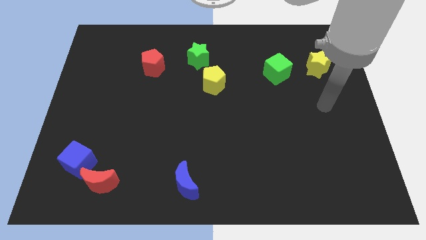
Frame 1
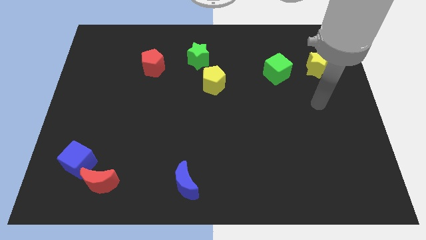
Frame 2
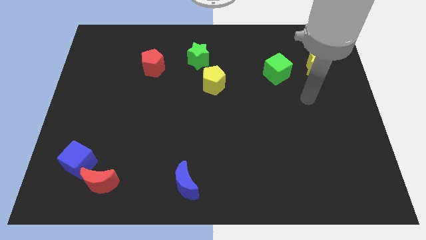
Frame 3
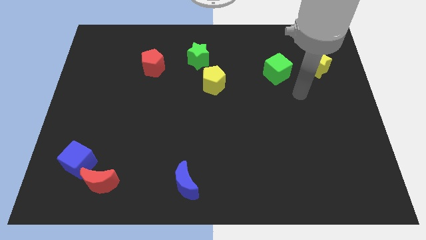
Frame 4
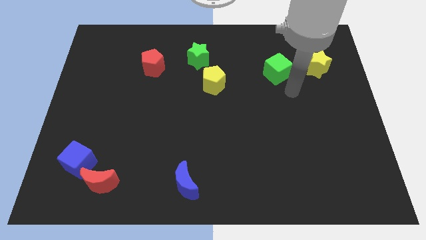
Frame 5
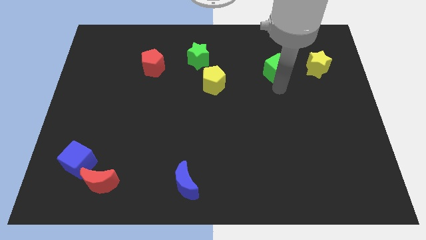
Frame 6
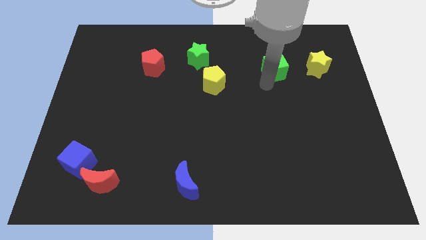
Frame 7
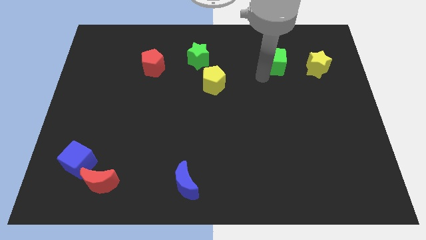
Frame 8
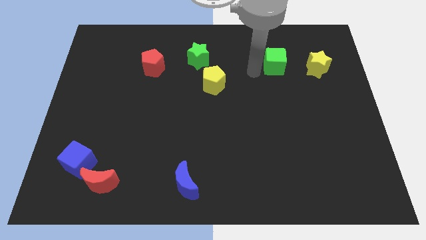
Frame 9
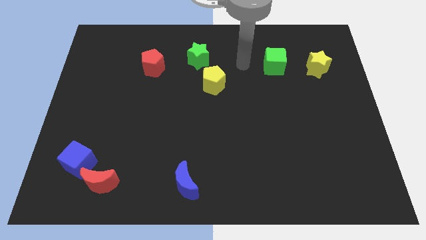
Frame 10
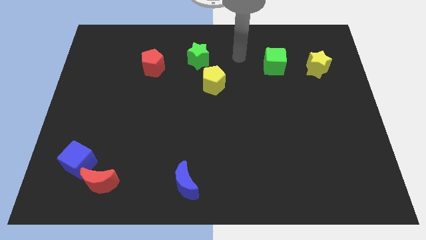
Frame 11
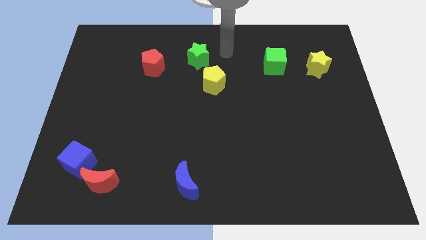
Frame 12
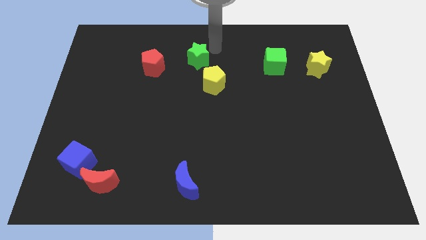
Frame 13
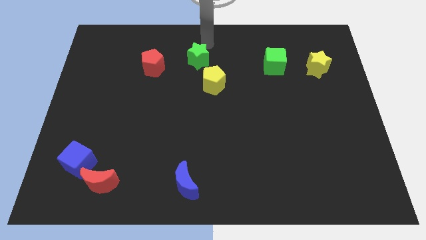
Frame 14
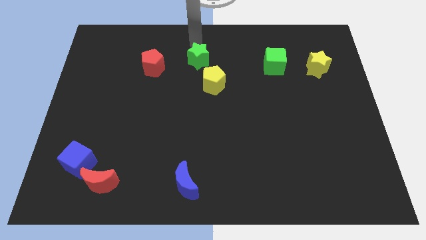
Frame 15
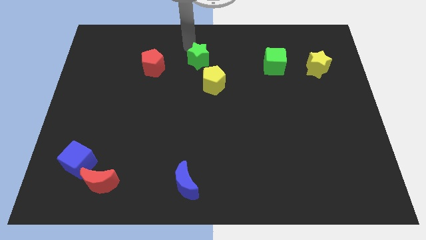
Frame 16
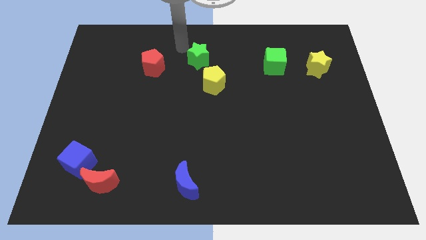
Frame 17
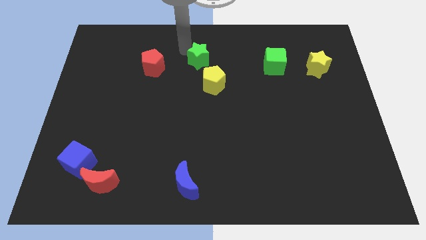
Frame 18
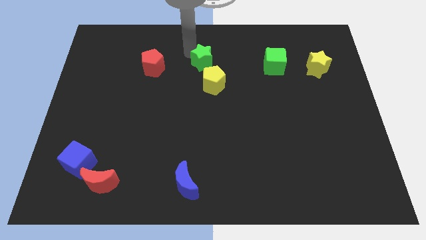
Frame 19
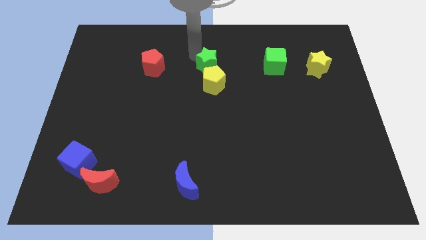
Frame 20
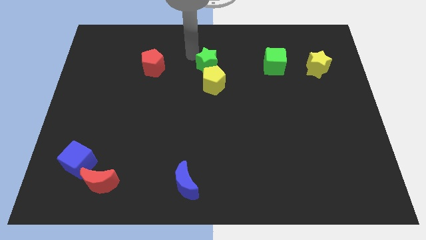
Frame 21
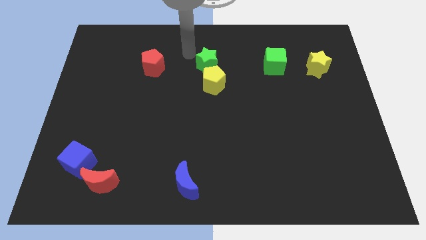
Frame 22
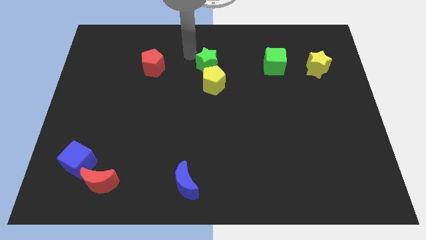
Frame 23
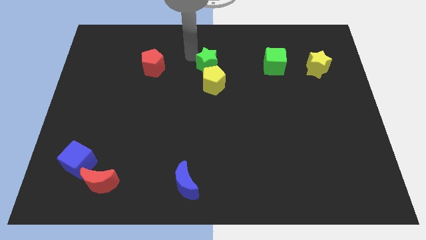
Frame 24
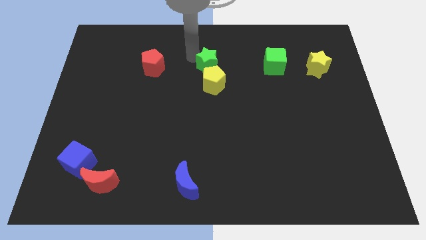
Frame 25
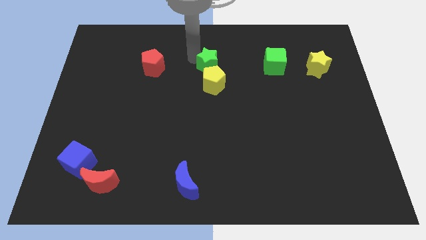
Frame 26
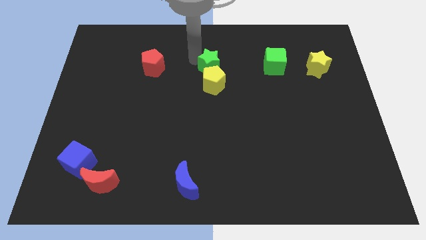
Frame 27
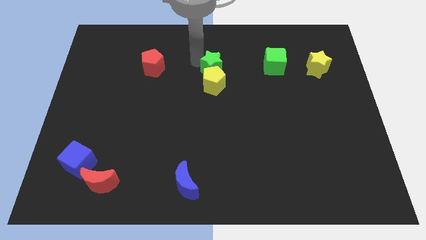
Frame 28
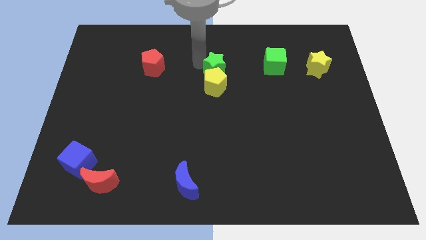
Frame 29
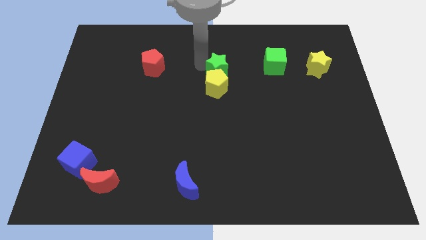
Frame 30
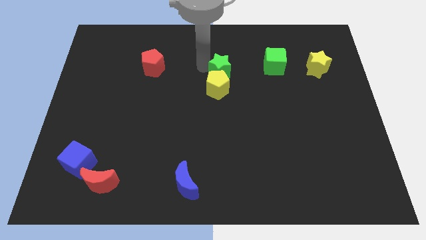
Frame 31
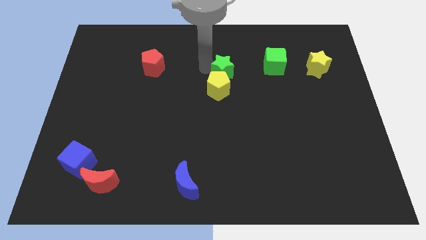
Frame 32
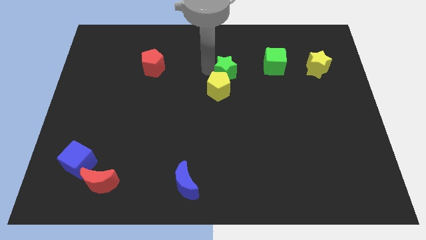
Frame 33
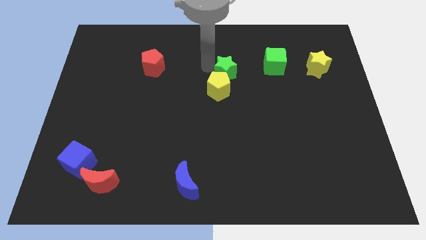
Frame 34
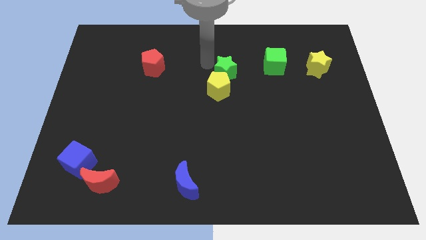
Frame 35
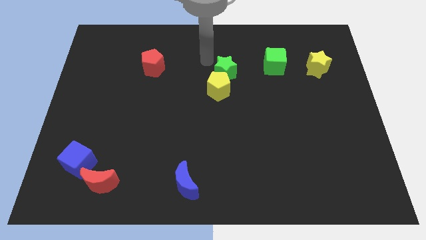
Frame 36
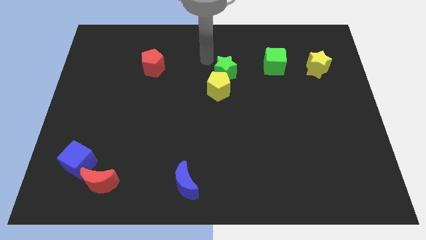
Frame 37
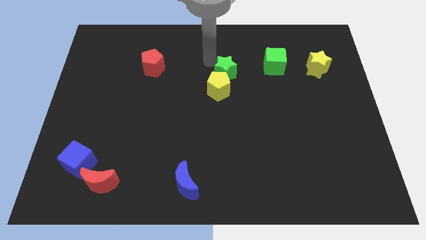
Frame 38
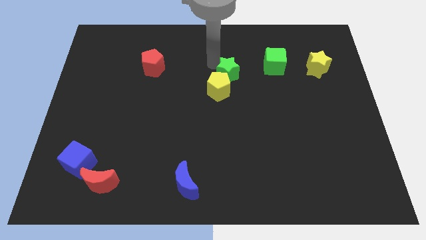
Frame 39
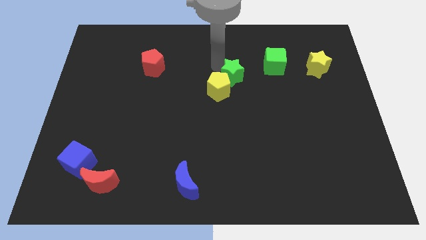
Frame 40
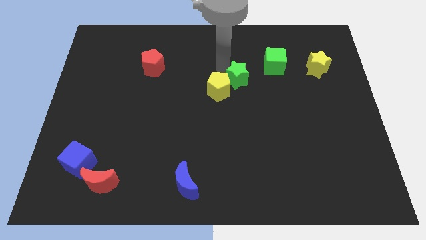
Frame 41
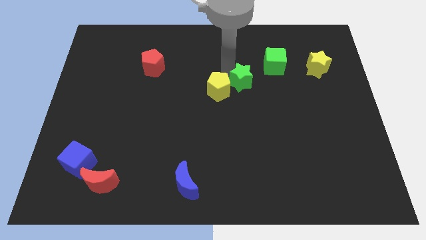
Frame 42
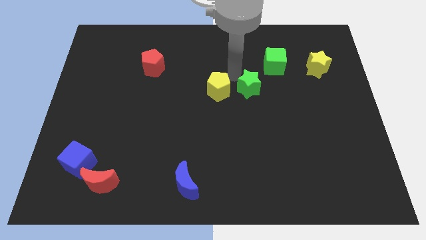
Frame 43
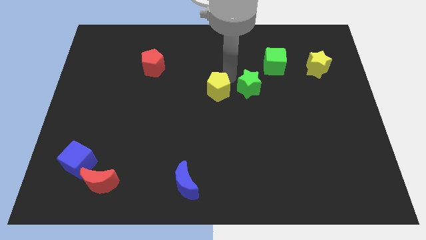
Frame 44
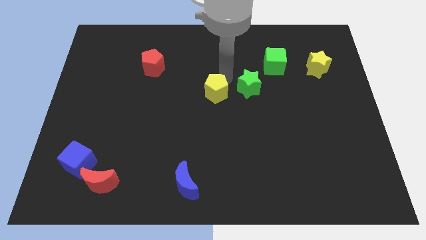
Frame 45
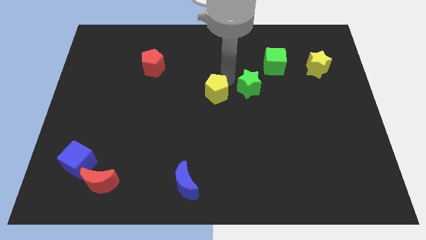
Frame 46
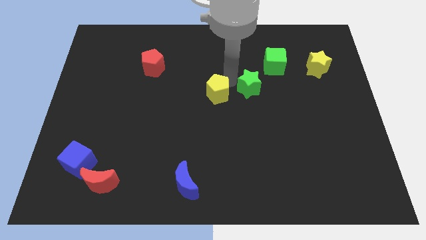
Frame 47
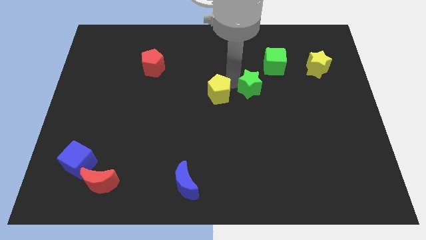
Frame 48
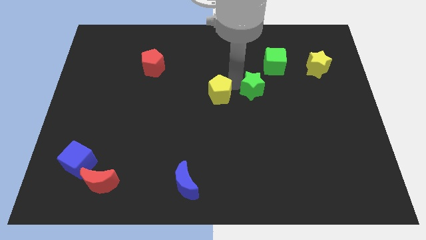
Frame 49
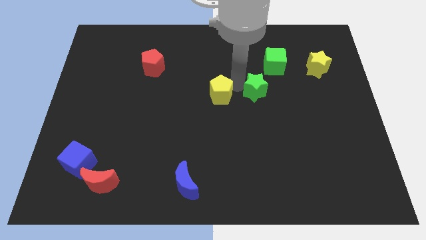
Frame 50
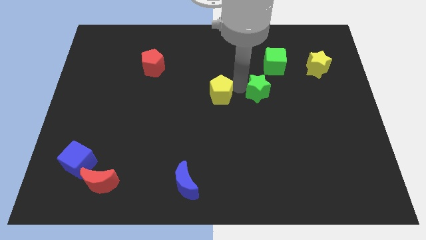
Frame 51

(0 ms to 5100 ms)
push the green star to the bottom of the green cube

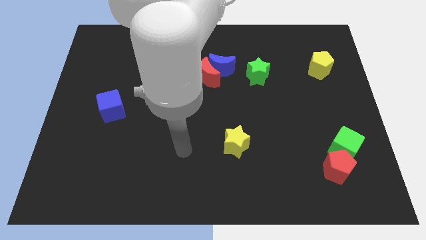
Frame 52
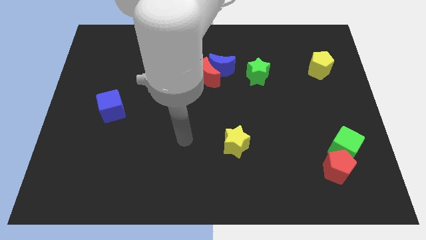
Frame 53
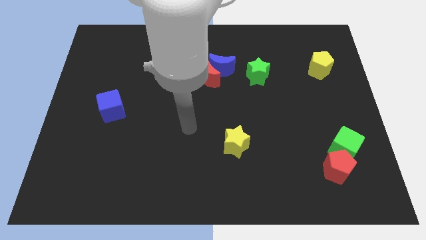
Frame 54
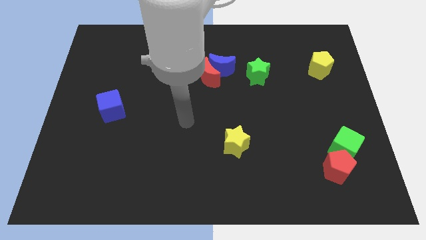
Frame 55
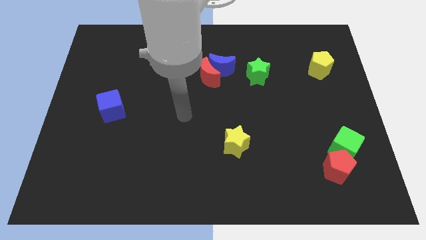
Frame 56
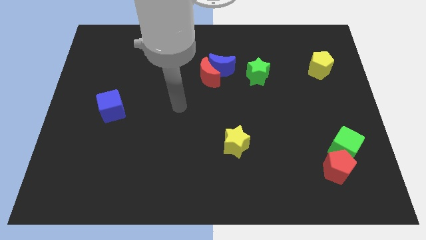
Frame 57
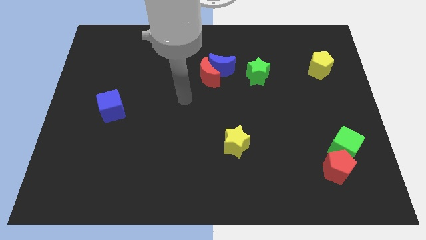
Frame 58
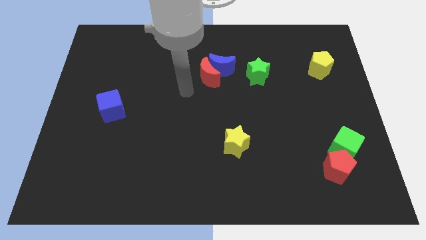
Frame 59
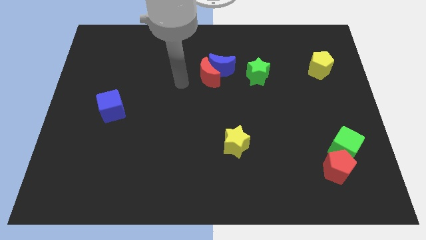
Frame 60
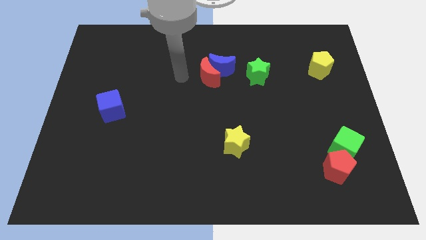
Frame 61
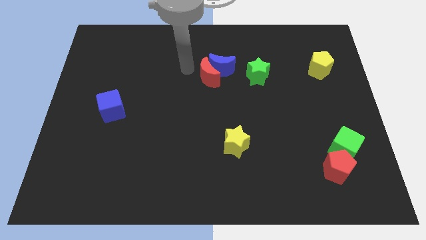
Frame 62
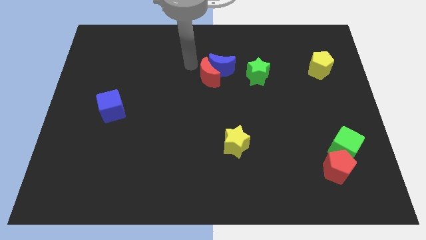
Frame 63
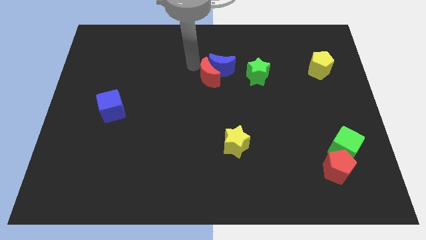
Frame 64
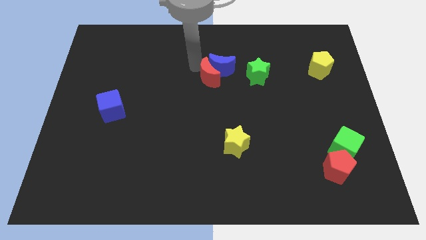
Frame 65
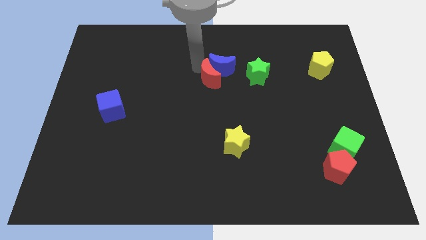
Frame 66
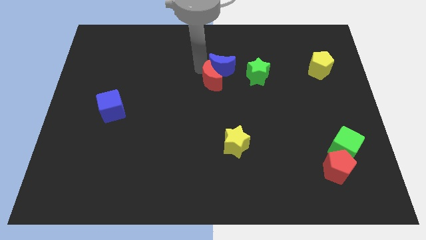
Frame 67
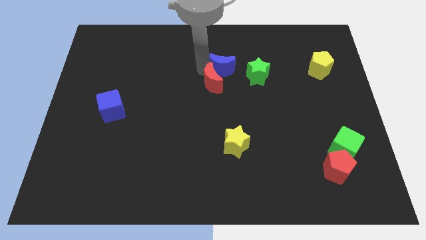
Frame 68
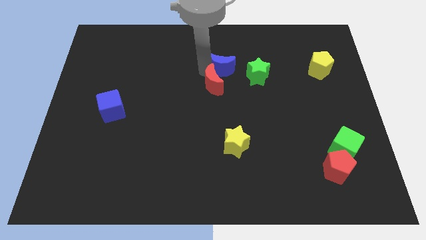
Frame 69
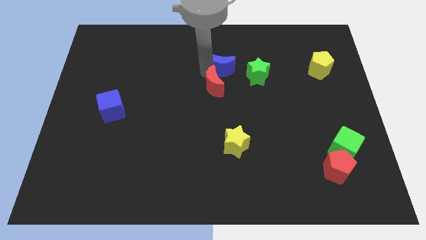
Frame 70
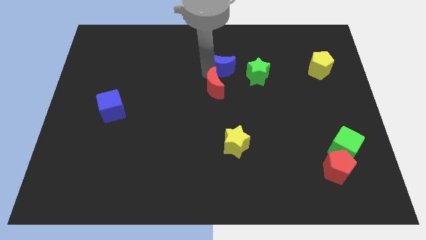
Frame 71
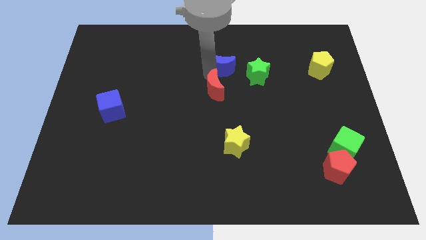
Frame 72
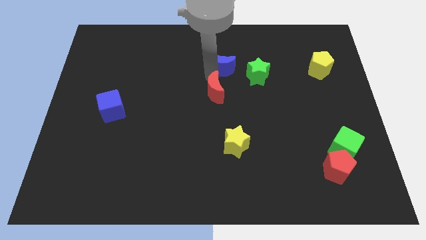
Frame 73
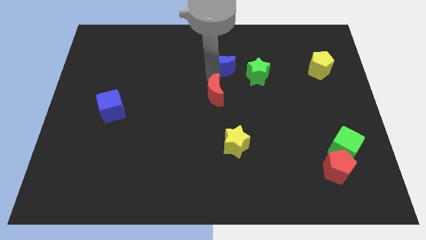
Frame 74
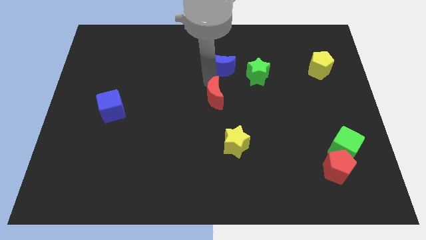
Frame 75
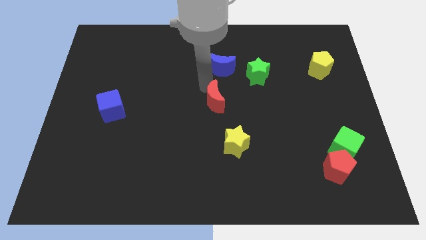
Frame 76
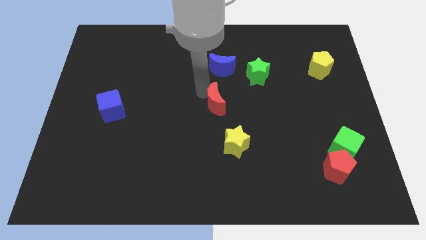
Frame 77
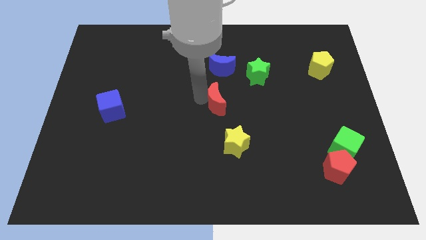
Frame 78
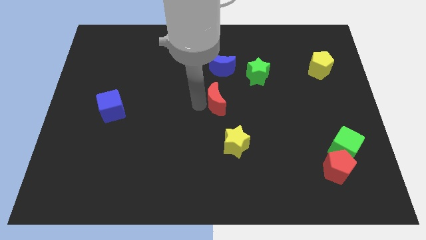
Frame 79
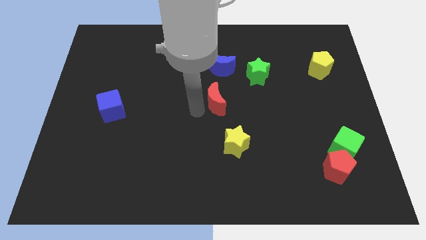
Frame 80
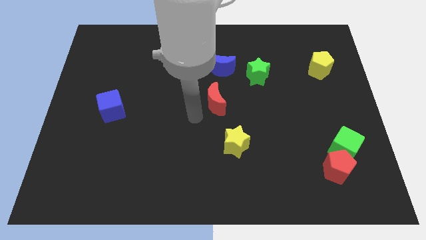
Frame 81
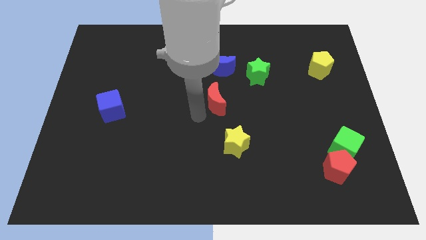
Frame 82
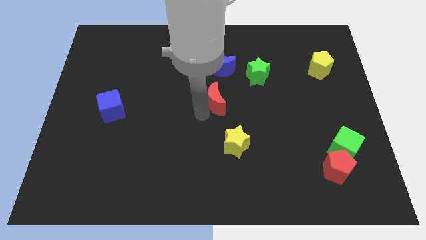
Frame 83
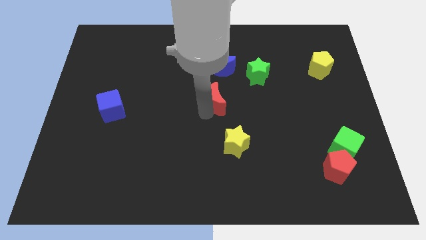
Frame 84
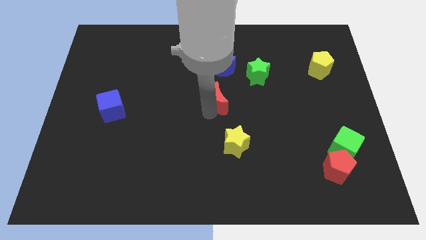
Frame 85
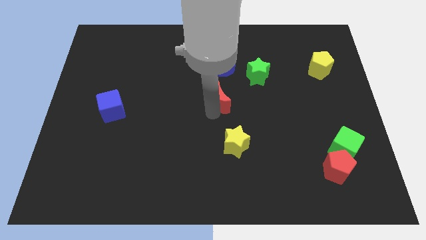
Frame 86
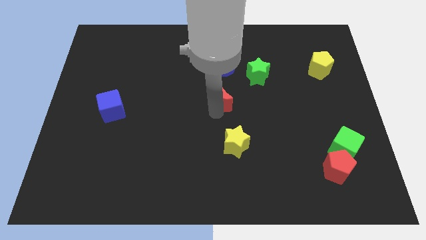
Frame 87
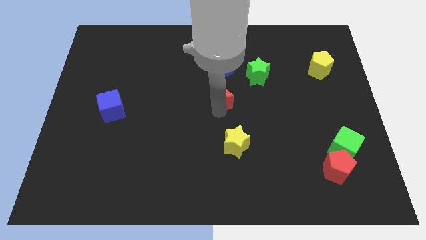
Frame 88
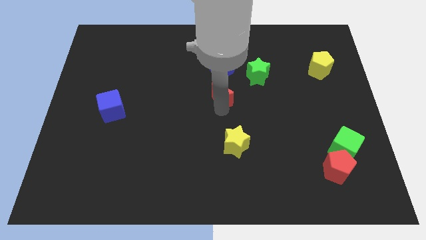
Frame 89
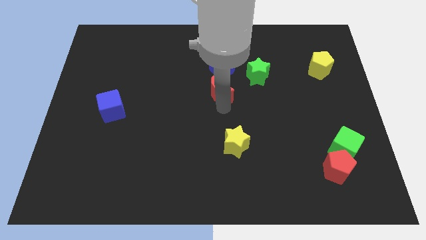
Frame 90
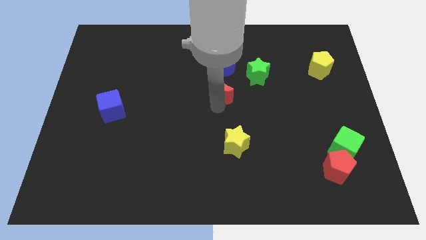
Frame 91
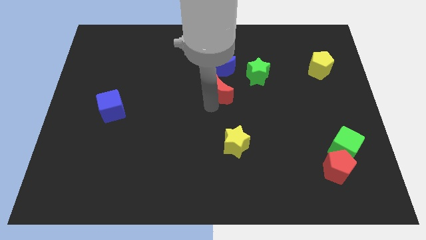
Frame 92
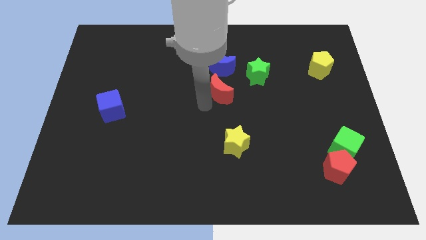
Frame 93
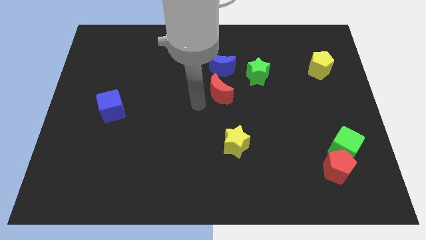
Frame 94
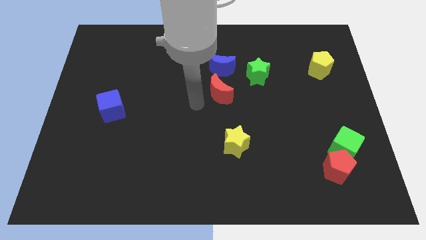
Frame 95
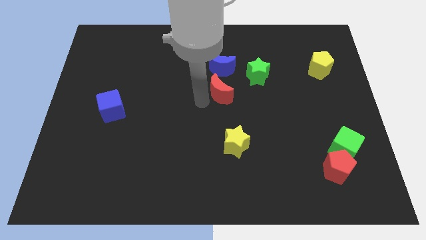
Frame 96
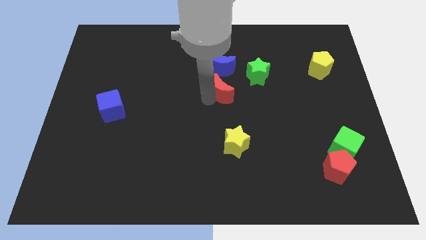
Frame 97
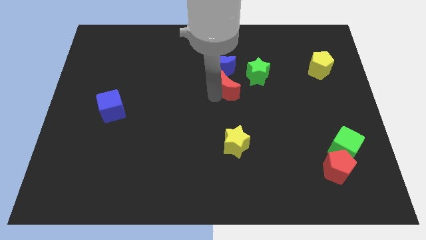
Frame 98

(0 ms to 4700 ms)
slide the red moon to the bottom right side of the blue moon
